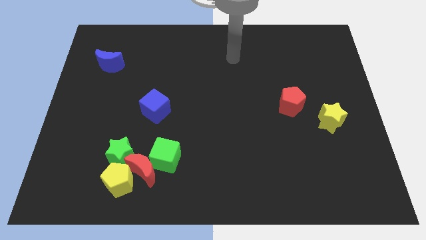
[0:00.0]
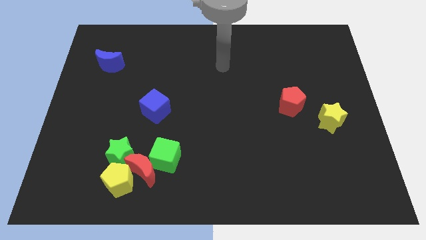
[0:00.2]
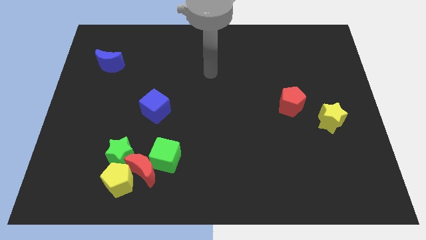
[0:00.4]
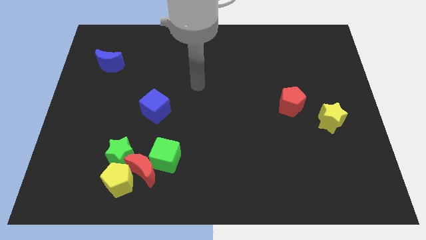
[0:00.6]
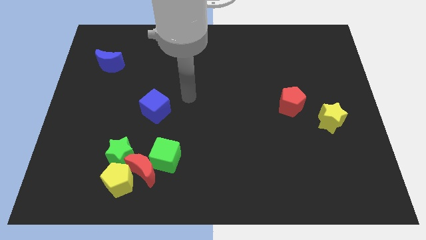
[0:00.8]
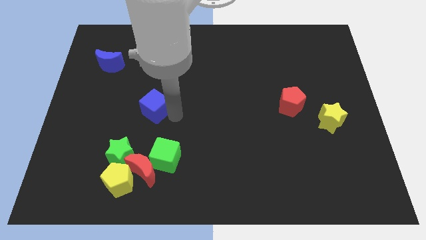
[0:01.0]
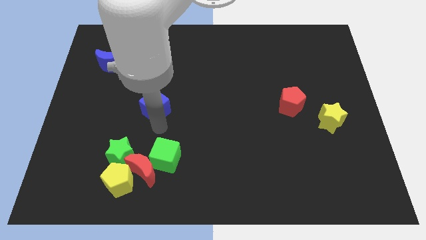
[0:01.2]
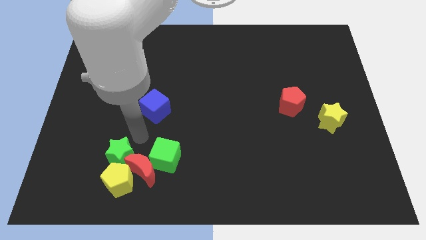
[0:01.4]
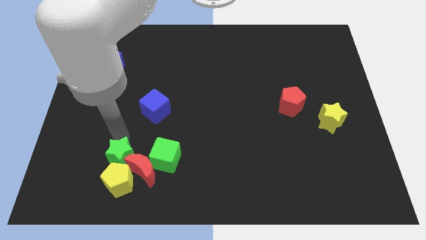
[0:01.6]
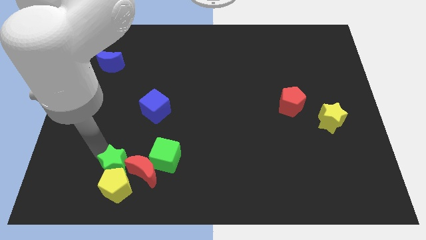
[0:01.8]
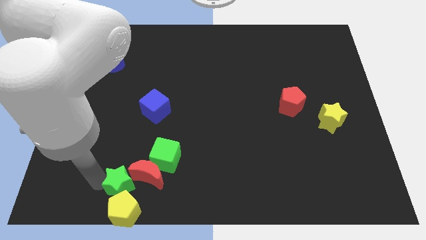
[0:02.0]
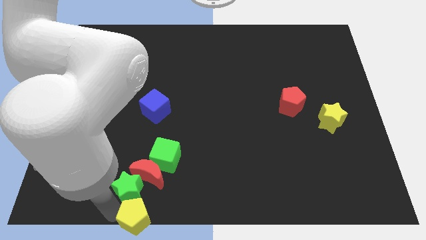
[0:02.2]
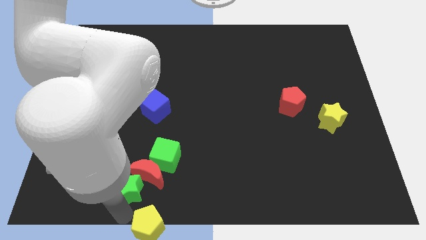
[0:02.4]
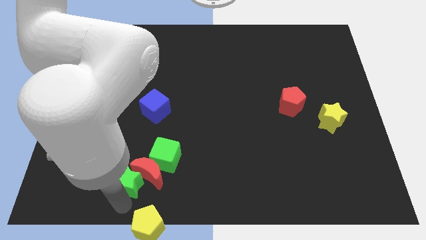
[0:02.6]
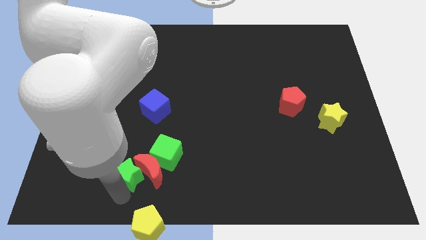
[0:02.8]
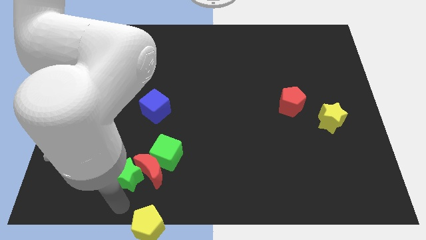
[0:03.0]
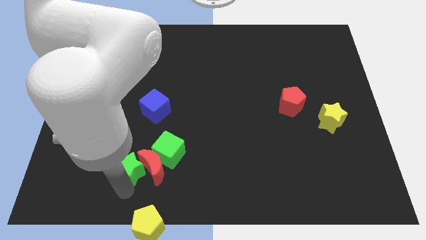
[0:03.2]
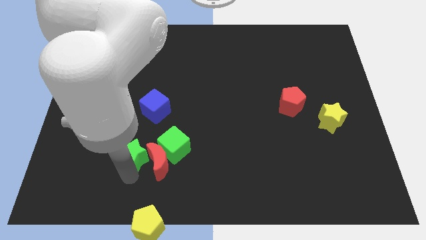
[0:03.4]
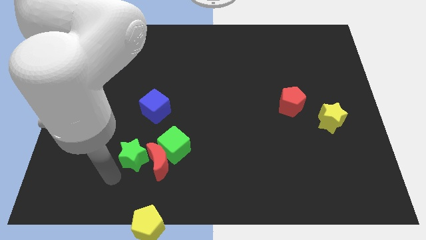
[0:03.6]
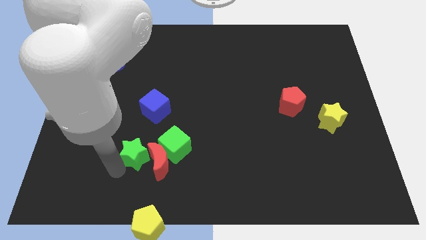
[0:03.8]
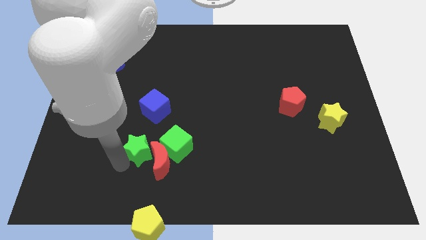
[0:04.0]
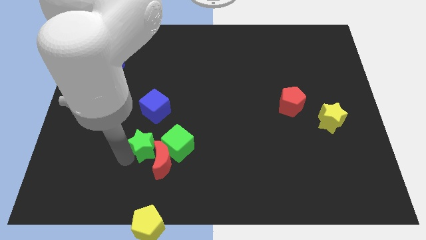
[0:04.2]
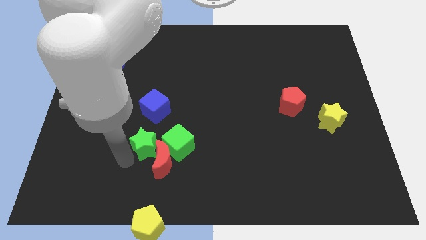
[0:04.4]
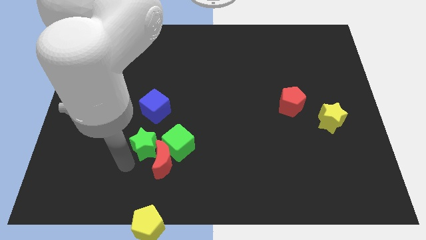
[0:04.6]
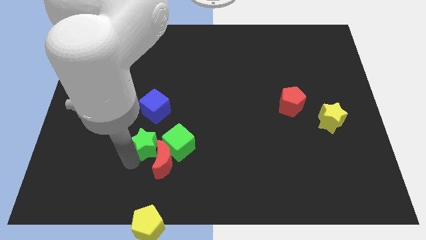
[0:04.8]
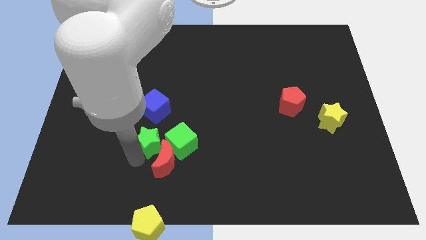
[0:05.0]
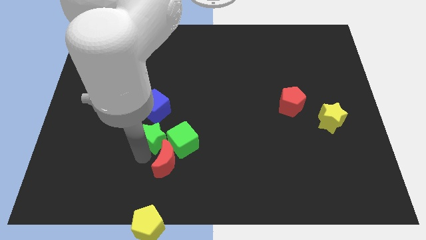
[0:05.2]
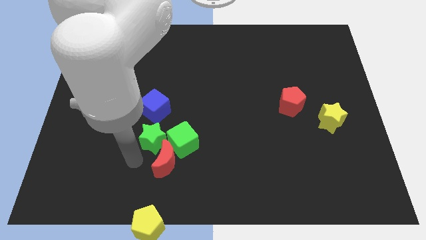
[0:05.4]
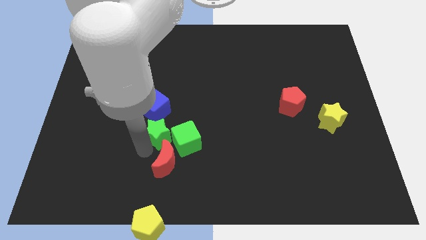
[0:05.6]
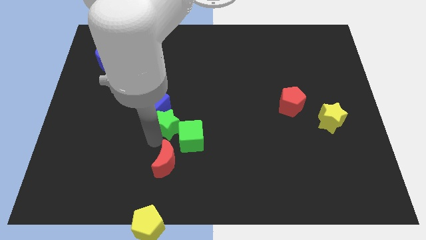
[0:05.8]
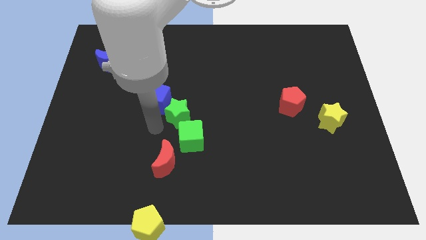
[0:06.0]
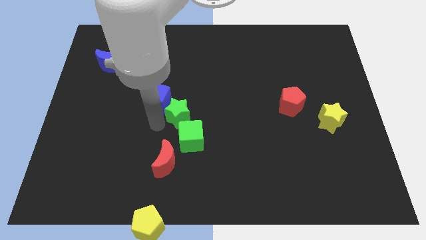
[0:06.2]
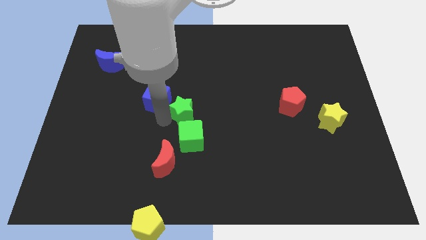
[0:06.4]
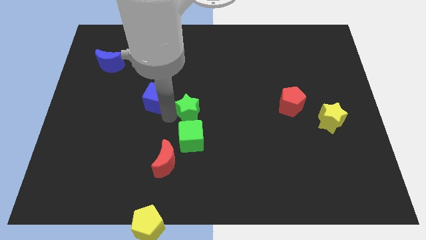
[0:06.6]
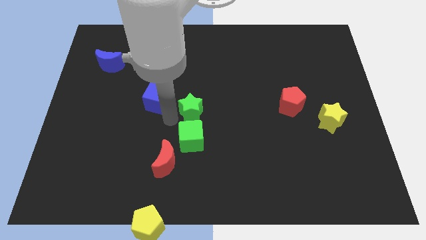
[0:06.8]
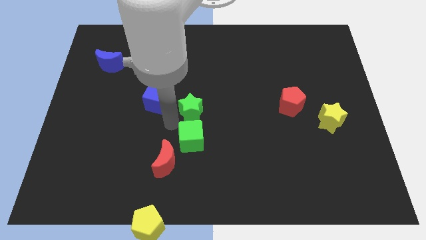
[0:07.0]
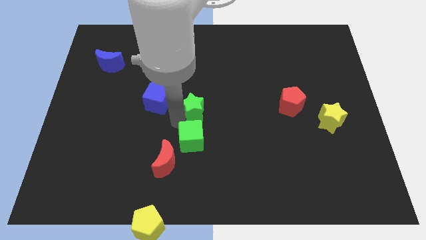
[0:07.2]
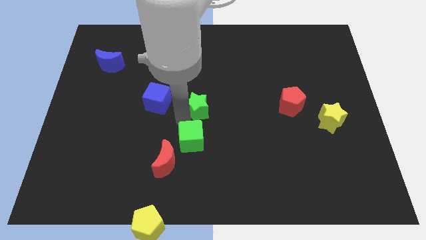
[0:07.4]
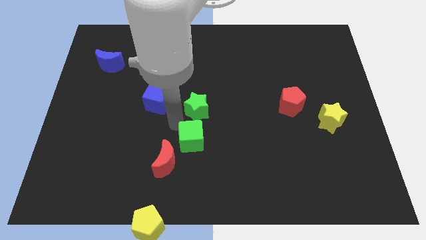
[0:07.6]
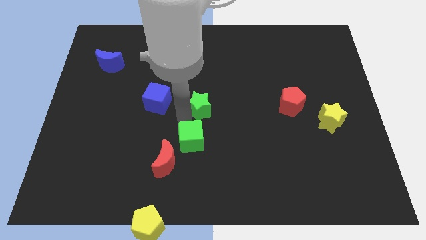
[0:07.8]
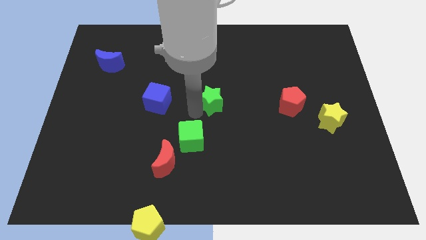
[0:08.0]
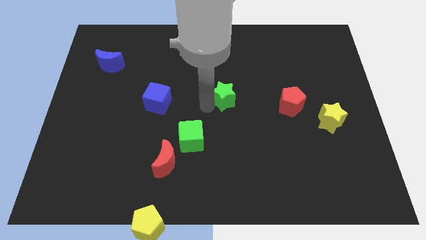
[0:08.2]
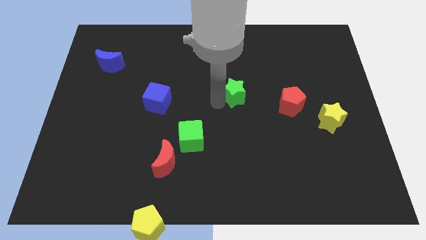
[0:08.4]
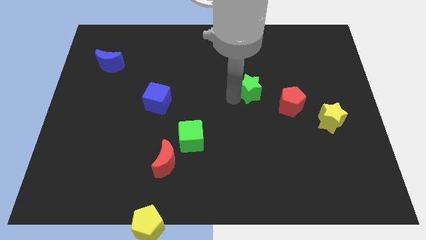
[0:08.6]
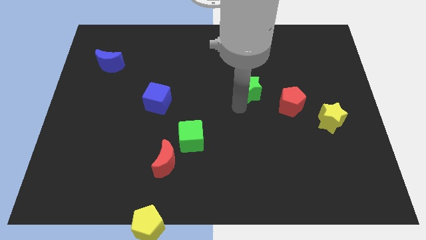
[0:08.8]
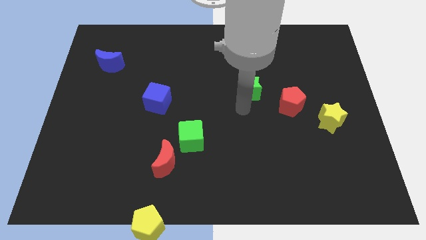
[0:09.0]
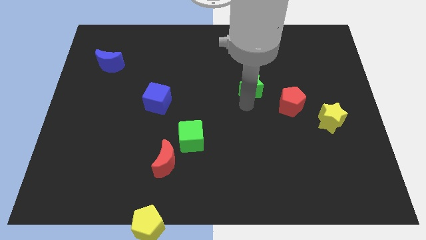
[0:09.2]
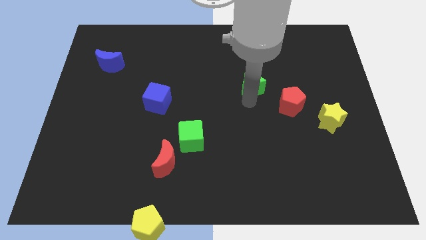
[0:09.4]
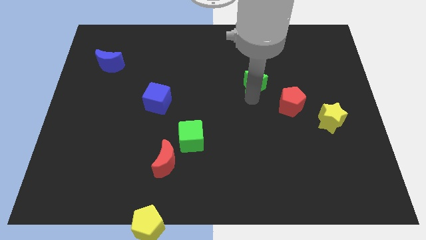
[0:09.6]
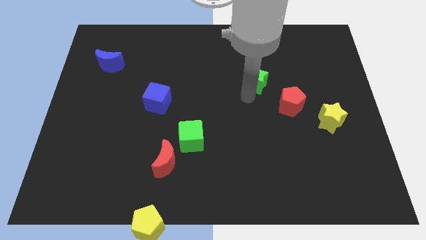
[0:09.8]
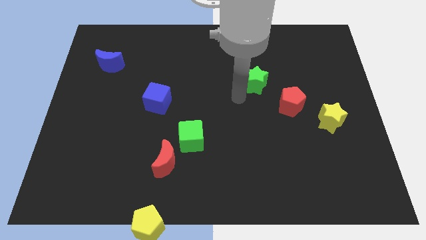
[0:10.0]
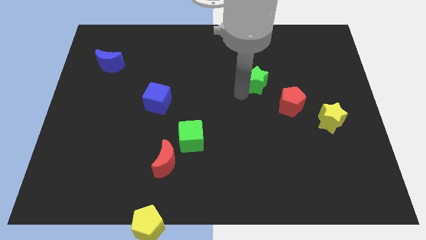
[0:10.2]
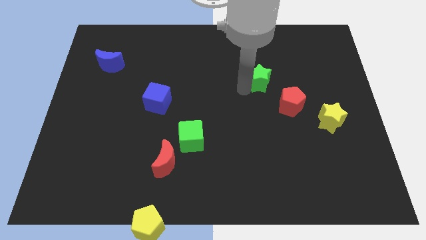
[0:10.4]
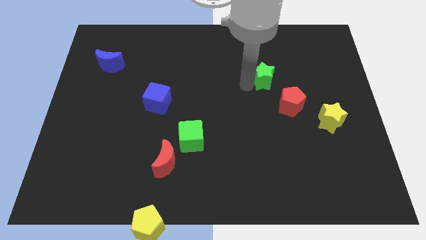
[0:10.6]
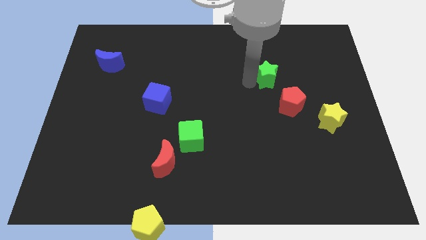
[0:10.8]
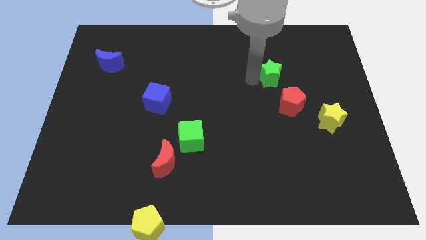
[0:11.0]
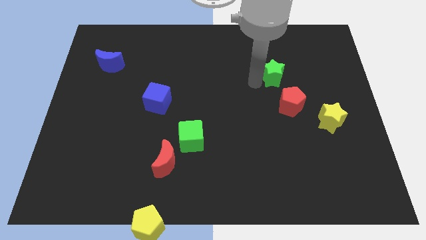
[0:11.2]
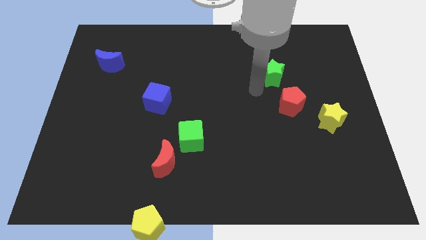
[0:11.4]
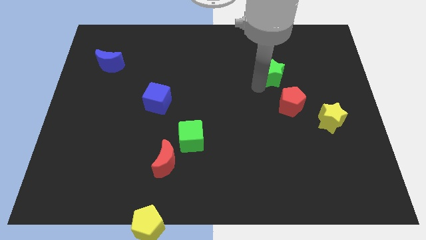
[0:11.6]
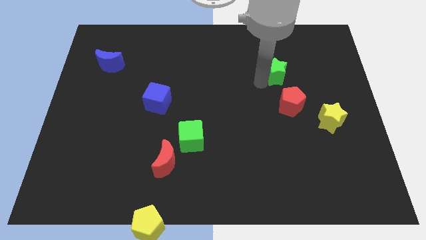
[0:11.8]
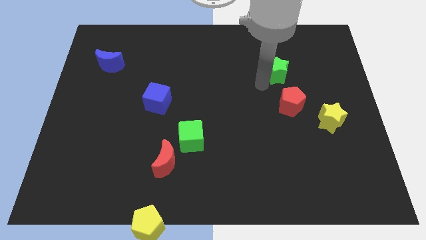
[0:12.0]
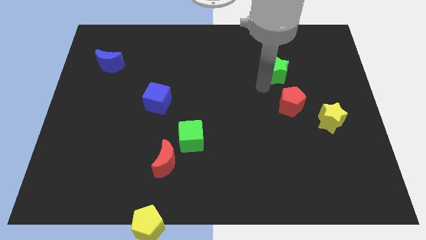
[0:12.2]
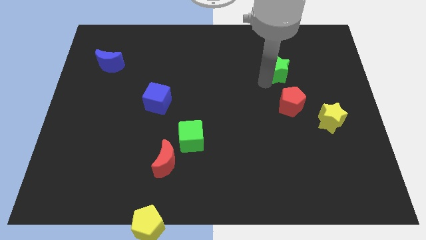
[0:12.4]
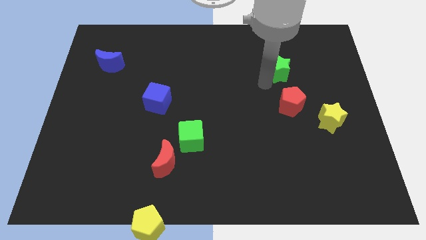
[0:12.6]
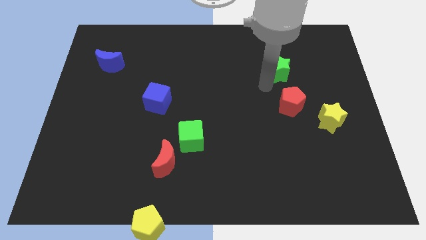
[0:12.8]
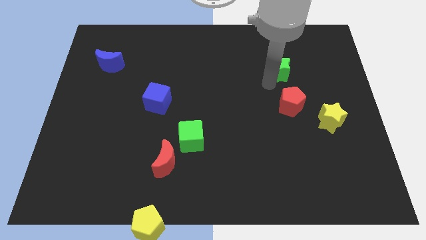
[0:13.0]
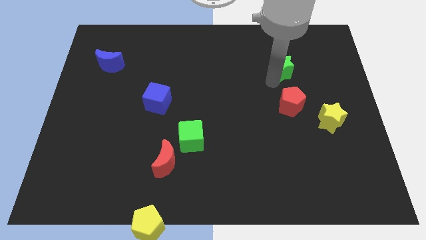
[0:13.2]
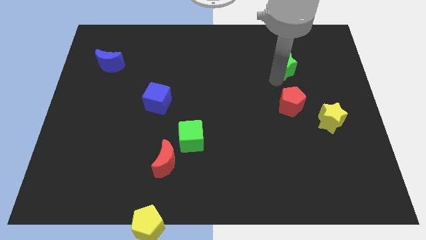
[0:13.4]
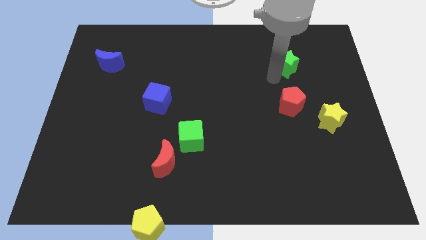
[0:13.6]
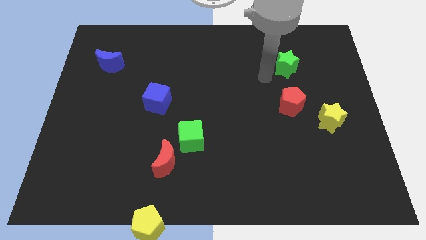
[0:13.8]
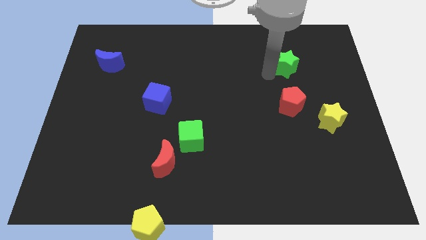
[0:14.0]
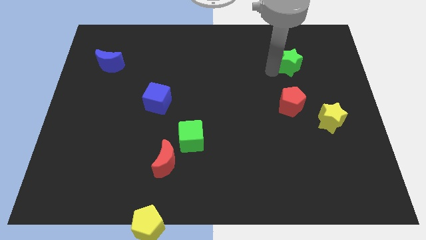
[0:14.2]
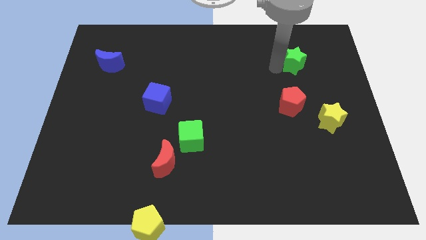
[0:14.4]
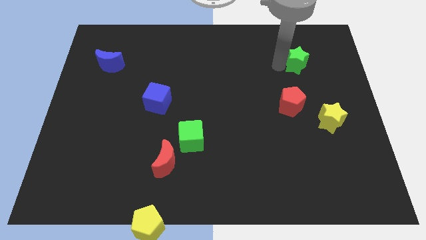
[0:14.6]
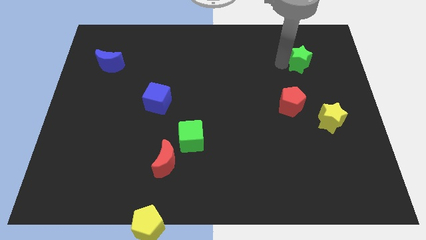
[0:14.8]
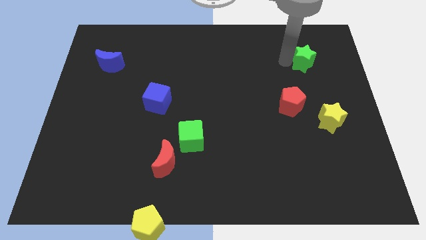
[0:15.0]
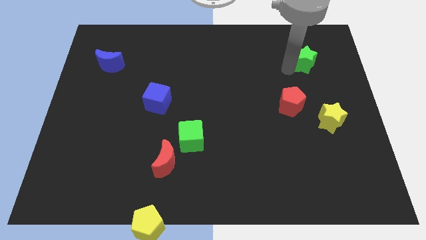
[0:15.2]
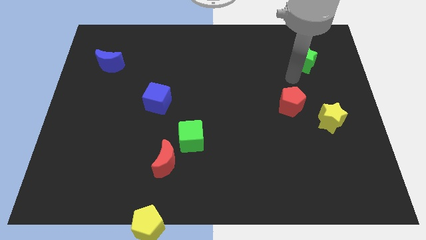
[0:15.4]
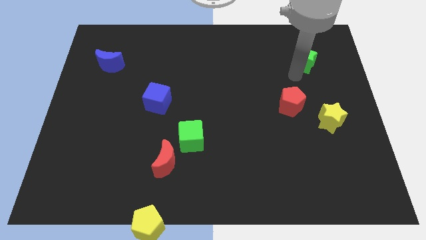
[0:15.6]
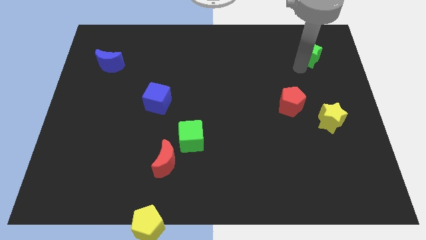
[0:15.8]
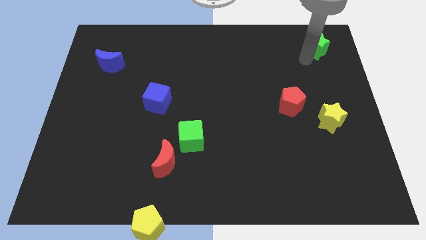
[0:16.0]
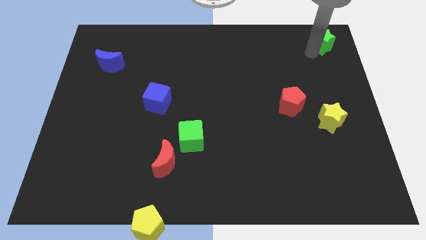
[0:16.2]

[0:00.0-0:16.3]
slide the green star to the top right corner
